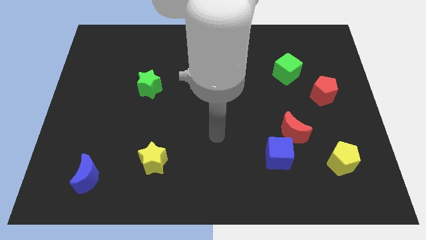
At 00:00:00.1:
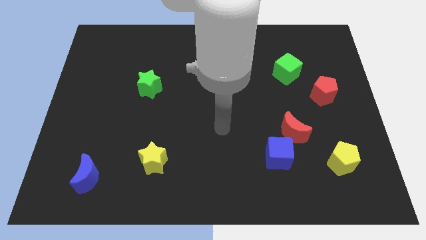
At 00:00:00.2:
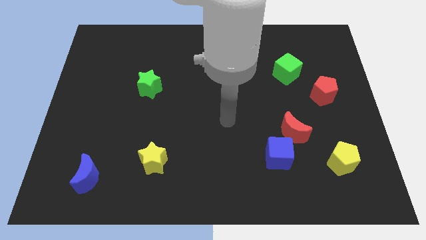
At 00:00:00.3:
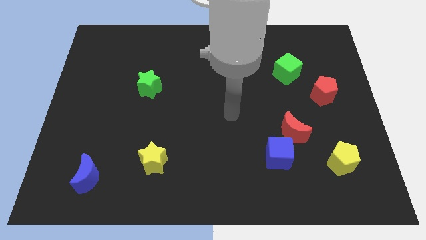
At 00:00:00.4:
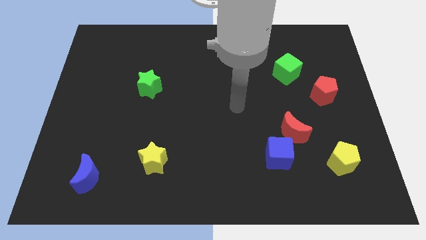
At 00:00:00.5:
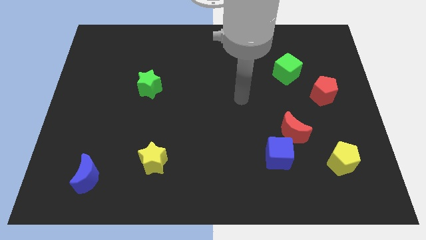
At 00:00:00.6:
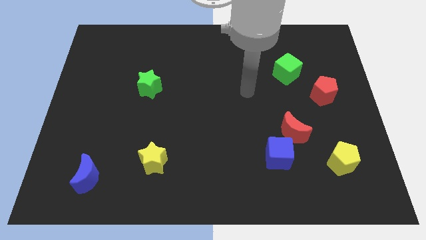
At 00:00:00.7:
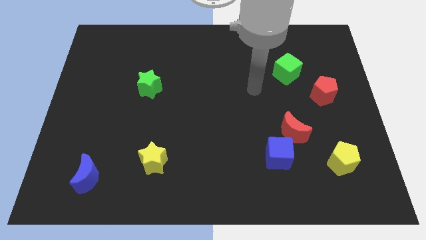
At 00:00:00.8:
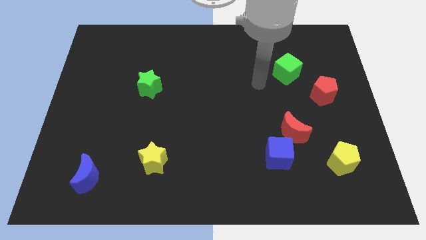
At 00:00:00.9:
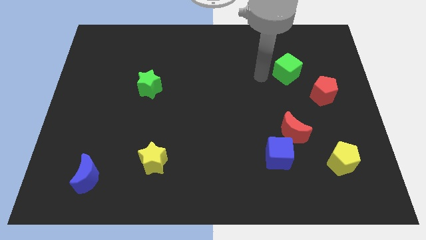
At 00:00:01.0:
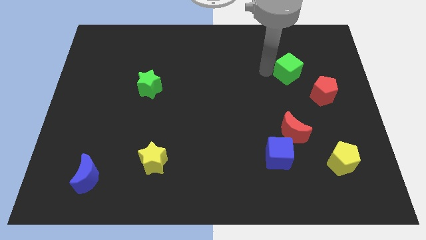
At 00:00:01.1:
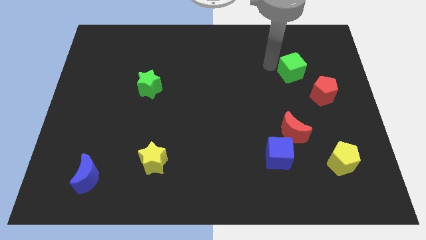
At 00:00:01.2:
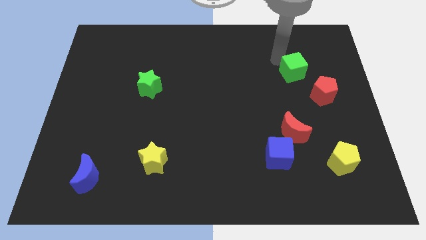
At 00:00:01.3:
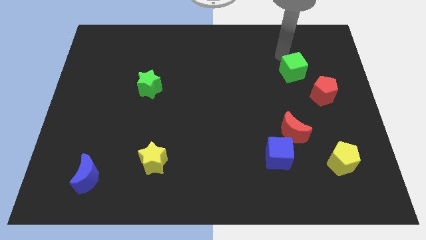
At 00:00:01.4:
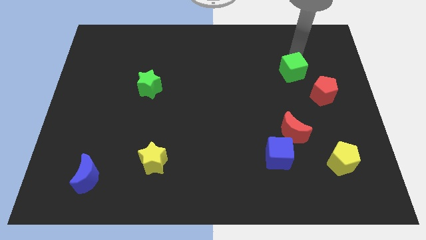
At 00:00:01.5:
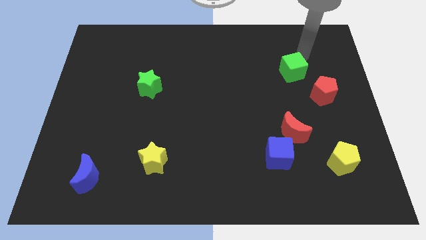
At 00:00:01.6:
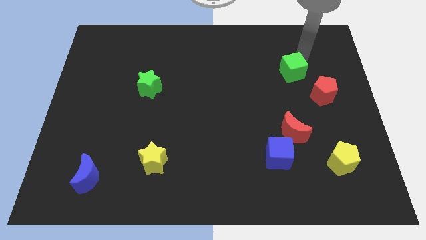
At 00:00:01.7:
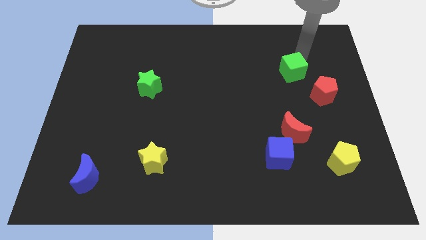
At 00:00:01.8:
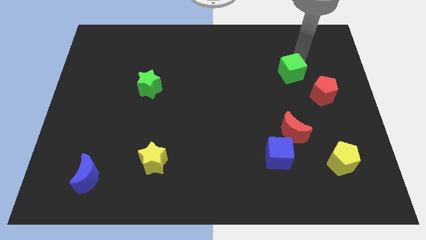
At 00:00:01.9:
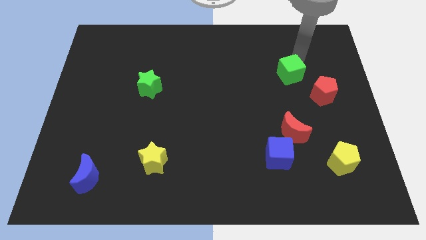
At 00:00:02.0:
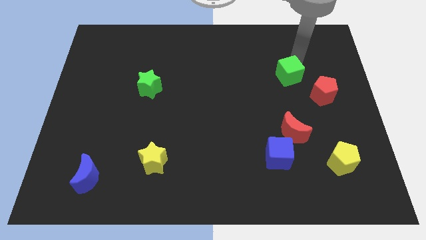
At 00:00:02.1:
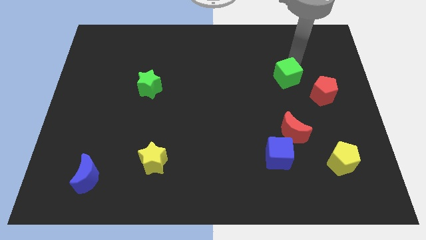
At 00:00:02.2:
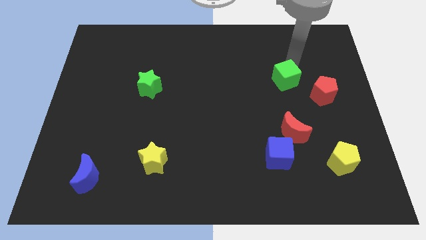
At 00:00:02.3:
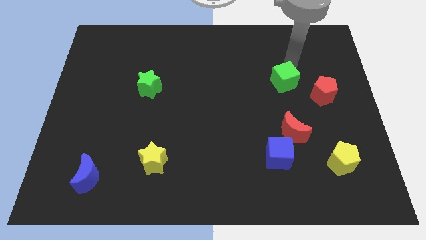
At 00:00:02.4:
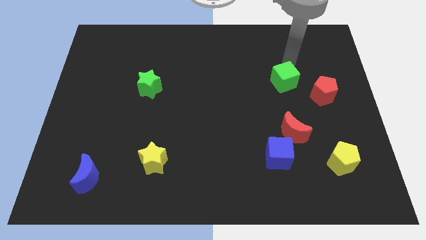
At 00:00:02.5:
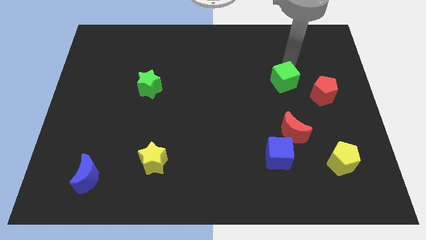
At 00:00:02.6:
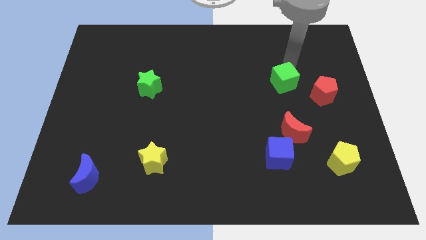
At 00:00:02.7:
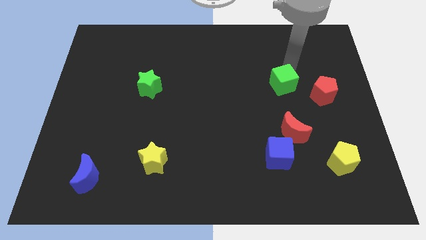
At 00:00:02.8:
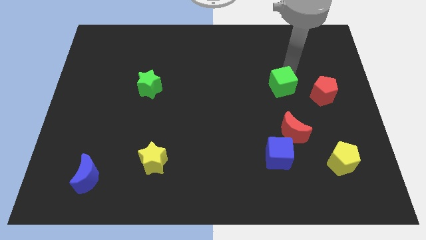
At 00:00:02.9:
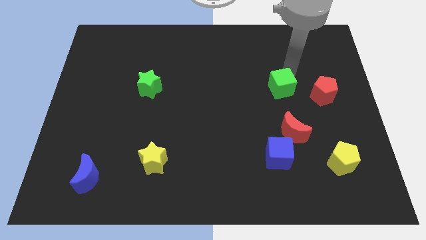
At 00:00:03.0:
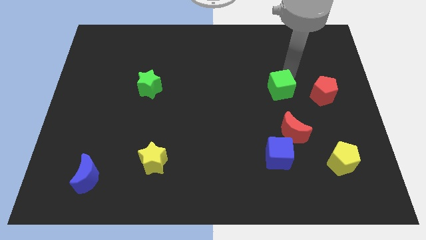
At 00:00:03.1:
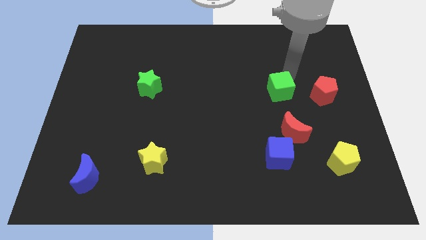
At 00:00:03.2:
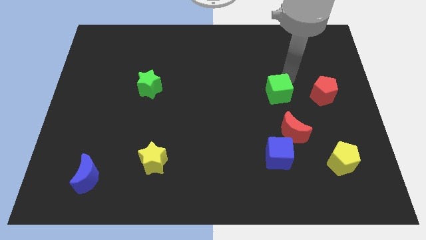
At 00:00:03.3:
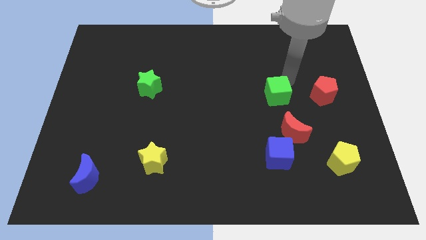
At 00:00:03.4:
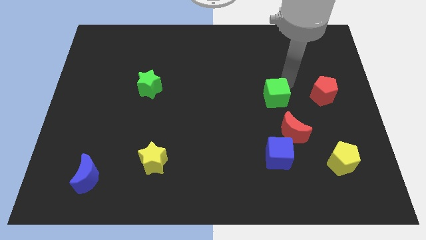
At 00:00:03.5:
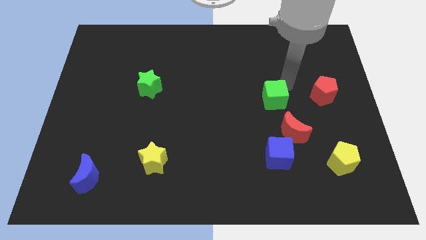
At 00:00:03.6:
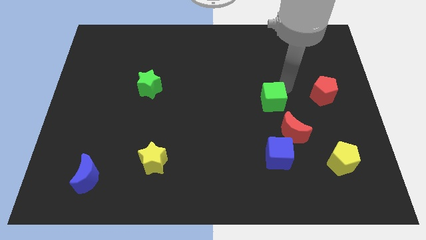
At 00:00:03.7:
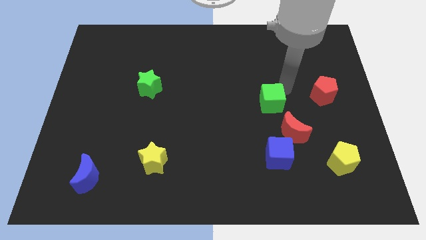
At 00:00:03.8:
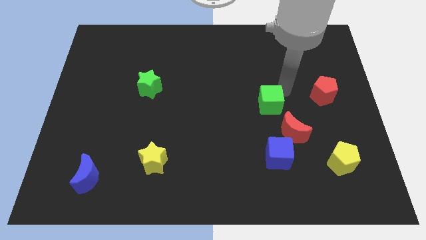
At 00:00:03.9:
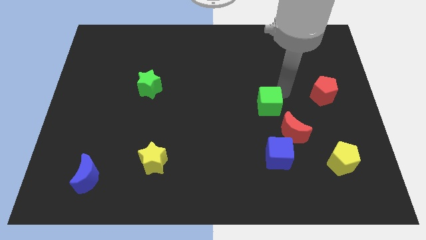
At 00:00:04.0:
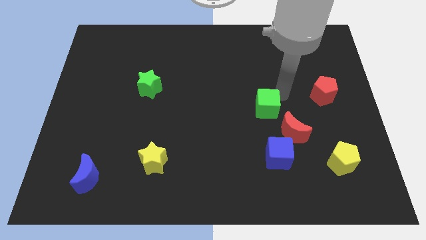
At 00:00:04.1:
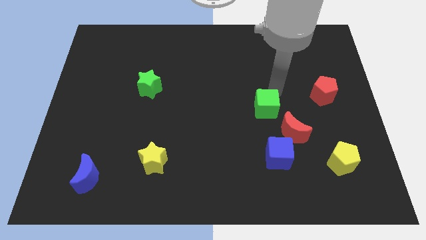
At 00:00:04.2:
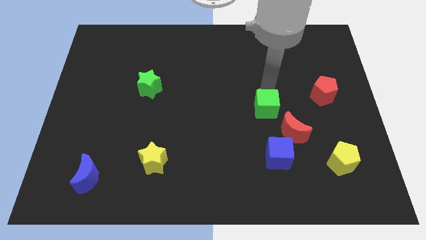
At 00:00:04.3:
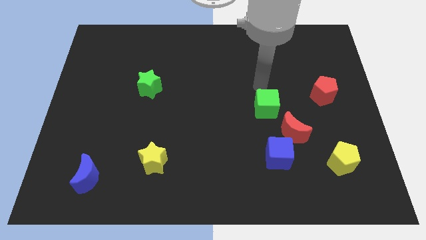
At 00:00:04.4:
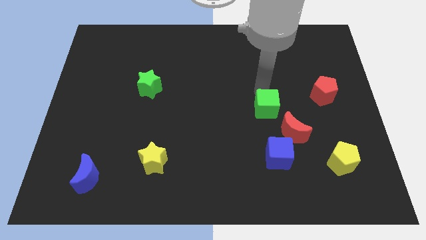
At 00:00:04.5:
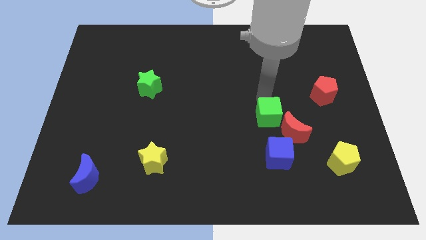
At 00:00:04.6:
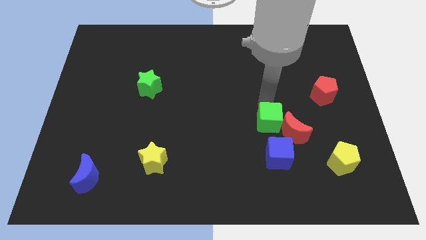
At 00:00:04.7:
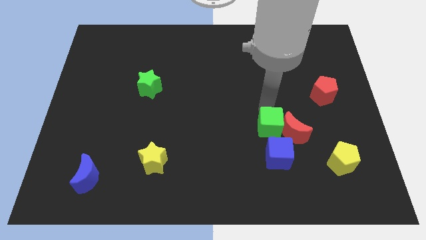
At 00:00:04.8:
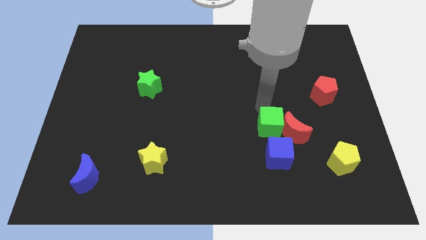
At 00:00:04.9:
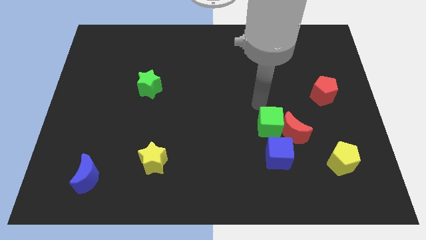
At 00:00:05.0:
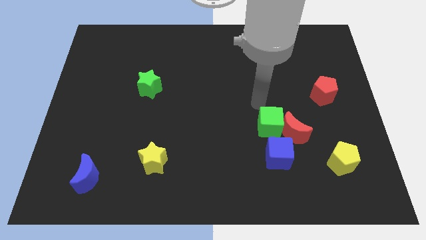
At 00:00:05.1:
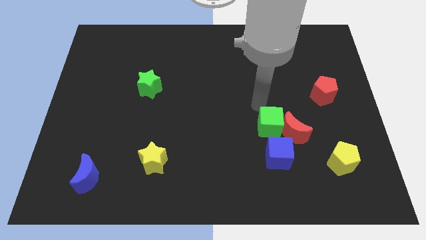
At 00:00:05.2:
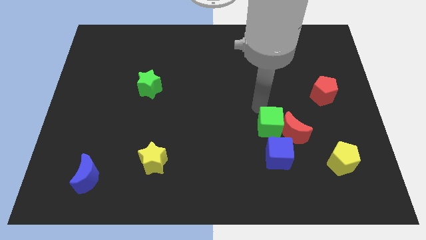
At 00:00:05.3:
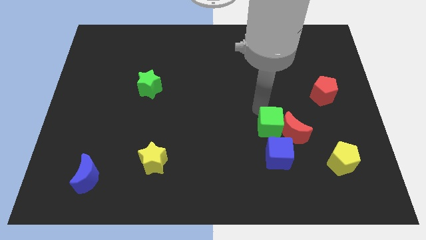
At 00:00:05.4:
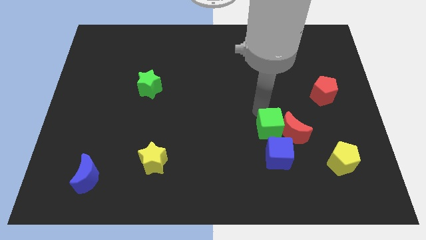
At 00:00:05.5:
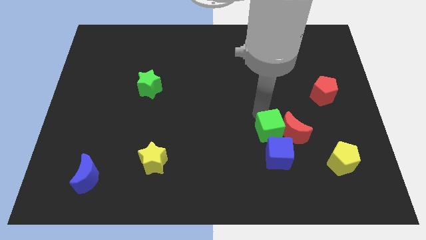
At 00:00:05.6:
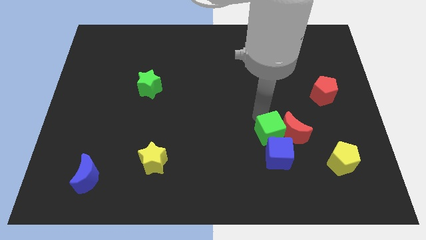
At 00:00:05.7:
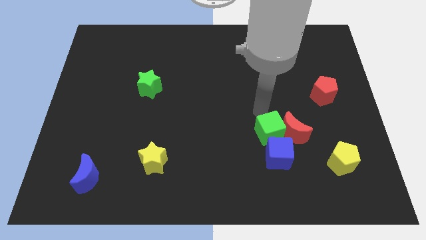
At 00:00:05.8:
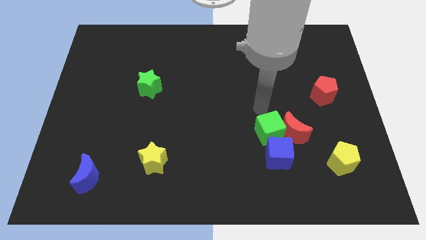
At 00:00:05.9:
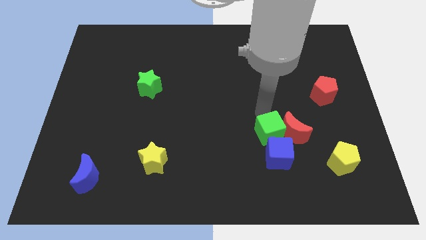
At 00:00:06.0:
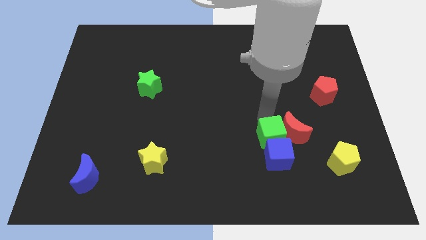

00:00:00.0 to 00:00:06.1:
push the green cube to the blue cube

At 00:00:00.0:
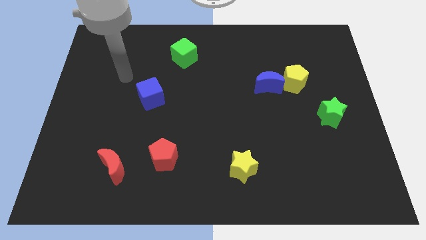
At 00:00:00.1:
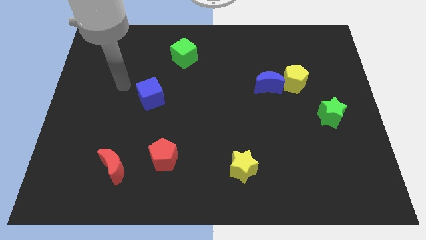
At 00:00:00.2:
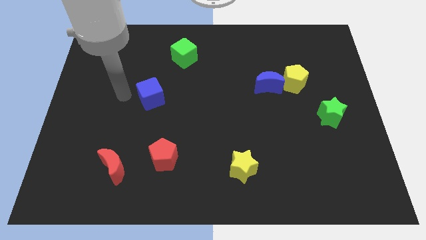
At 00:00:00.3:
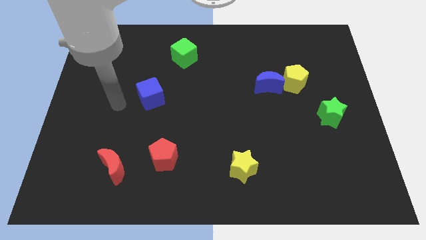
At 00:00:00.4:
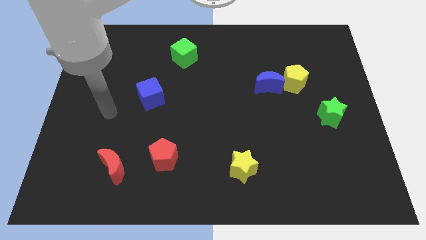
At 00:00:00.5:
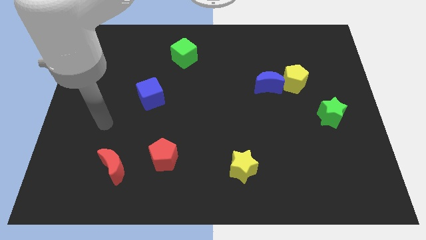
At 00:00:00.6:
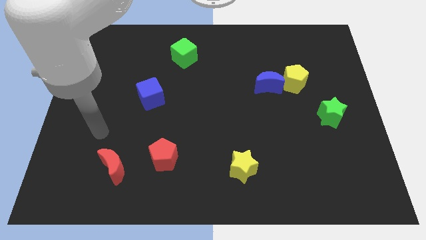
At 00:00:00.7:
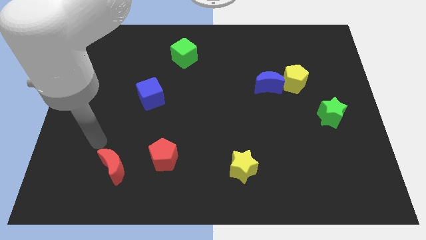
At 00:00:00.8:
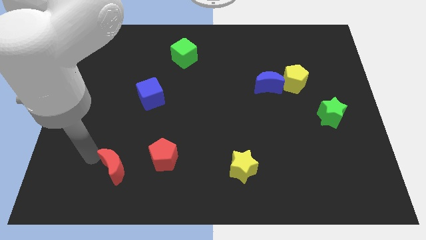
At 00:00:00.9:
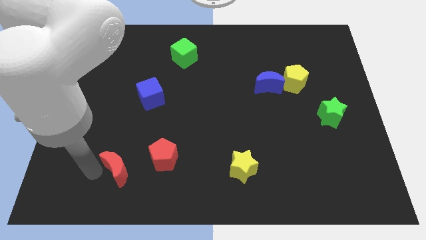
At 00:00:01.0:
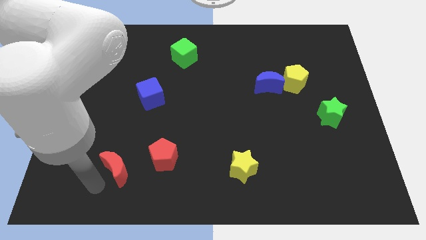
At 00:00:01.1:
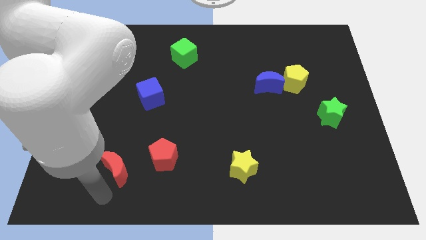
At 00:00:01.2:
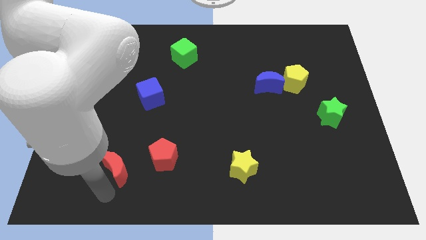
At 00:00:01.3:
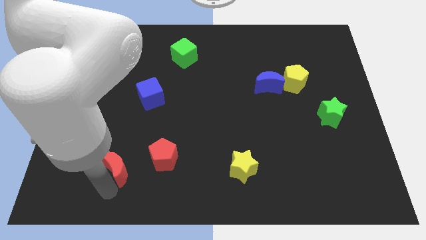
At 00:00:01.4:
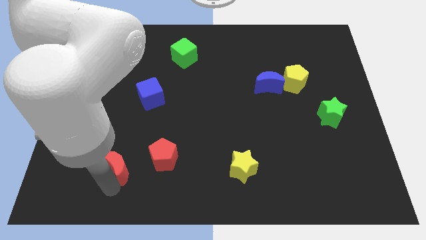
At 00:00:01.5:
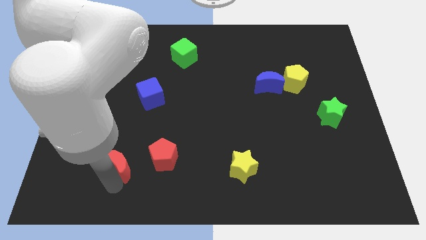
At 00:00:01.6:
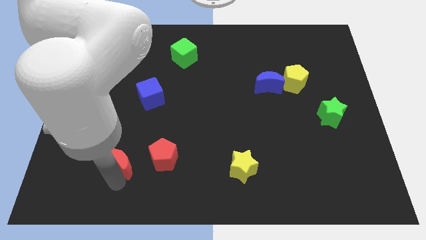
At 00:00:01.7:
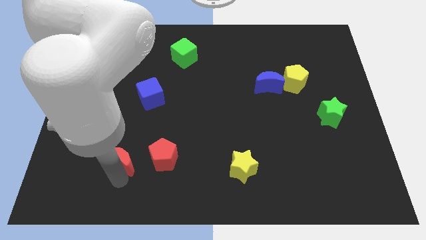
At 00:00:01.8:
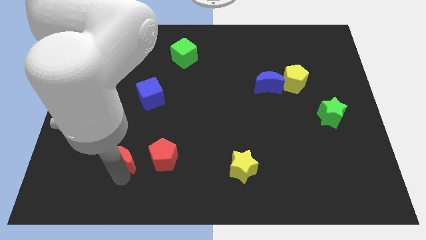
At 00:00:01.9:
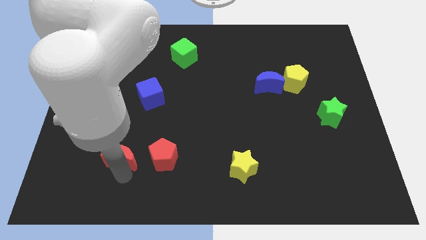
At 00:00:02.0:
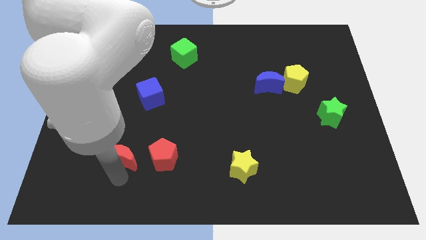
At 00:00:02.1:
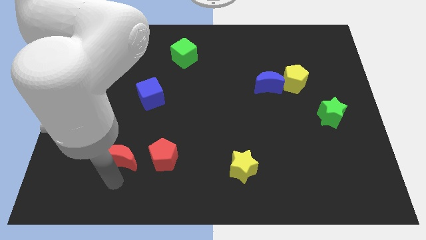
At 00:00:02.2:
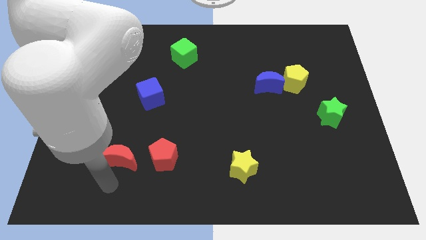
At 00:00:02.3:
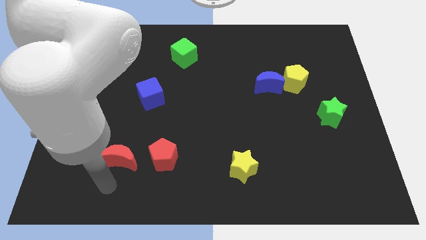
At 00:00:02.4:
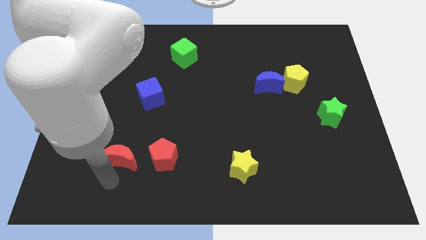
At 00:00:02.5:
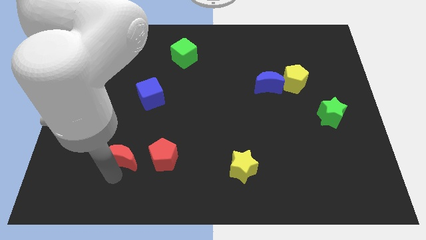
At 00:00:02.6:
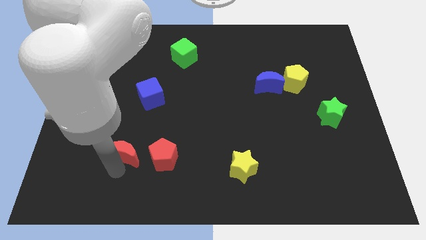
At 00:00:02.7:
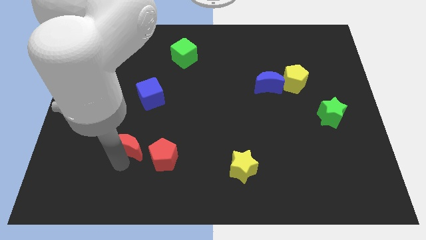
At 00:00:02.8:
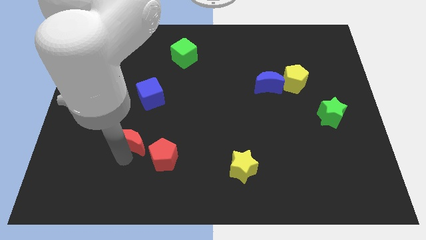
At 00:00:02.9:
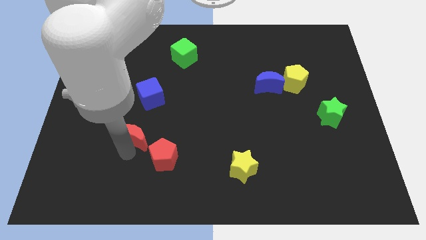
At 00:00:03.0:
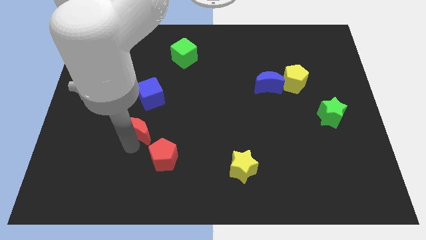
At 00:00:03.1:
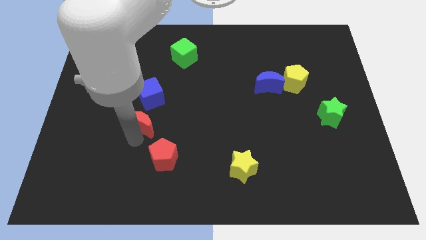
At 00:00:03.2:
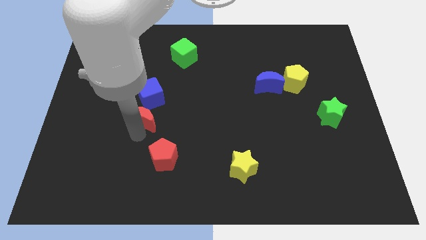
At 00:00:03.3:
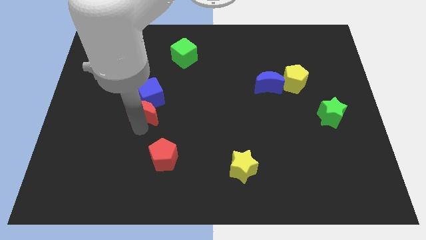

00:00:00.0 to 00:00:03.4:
push the red moon next to the blue cube
